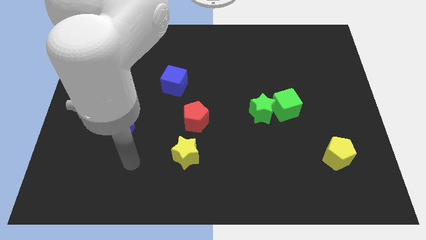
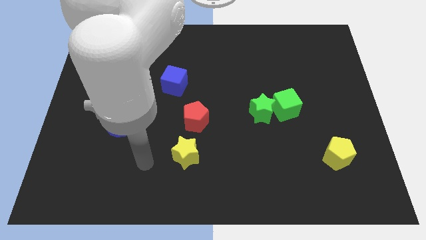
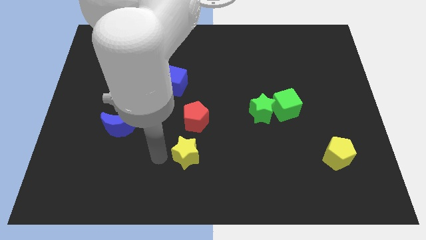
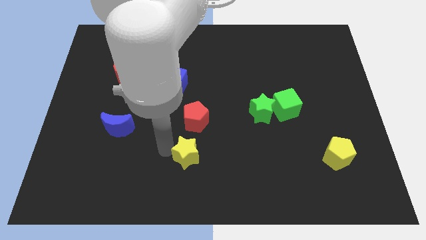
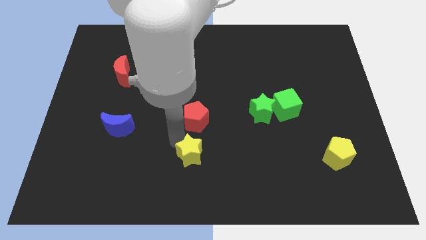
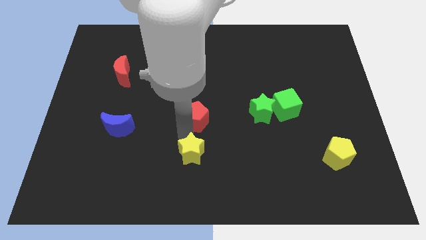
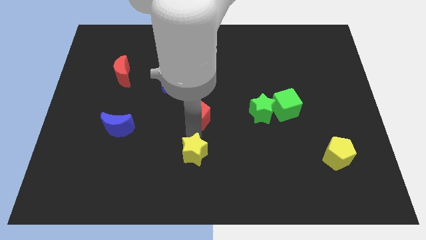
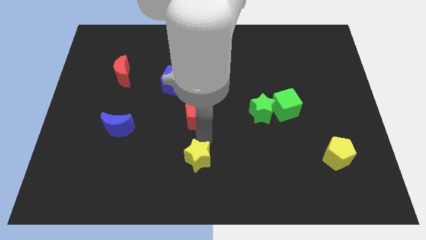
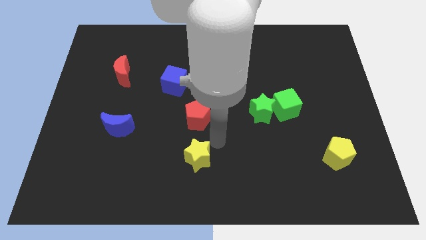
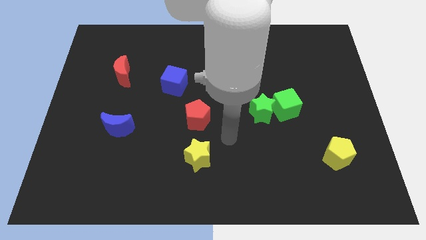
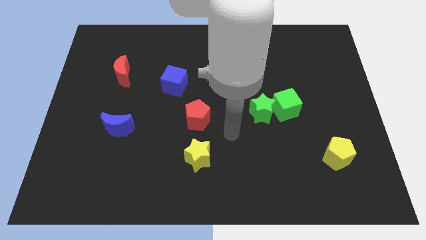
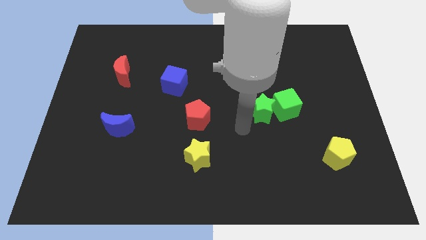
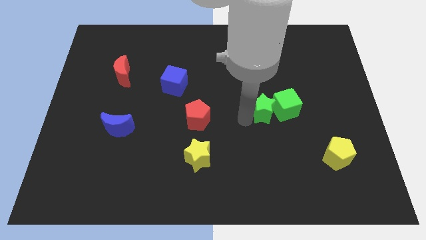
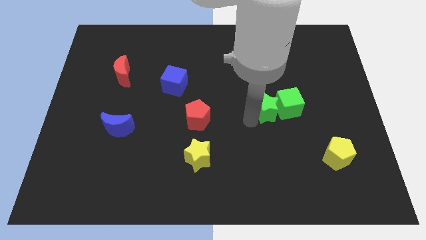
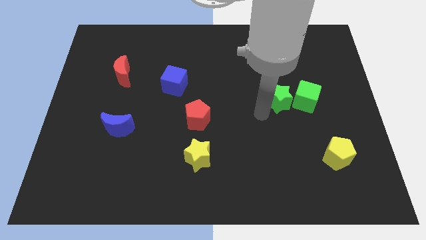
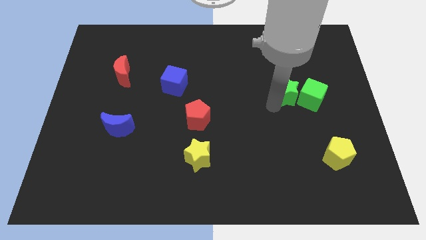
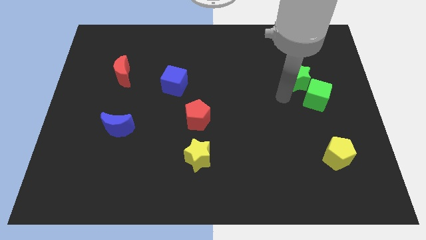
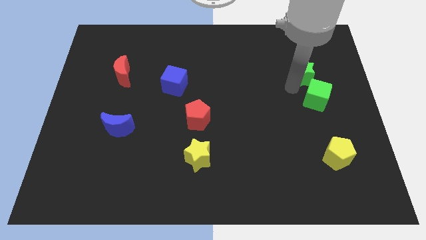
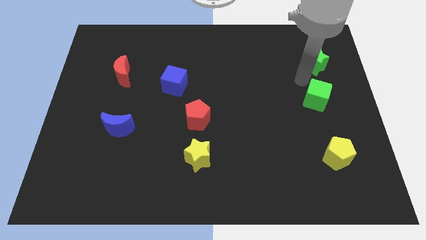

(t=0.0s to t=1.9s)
pull the green cube apart from the green star

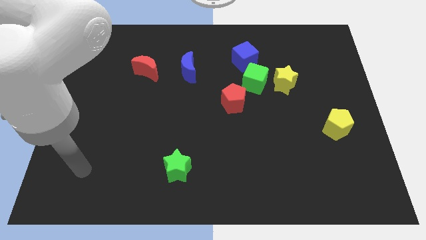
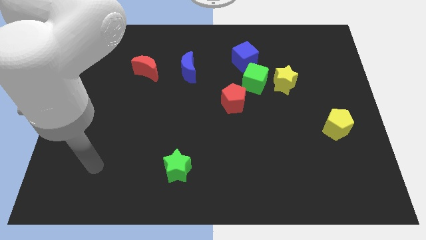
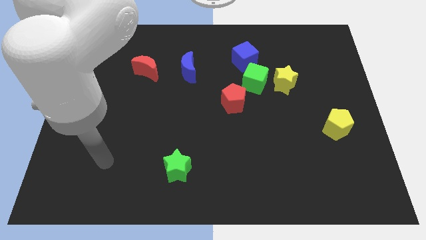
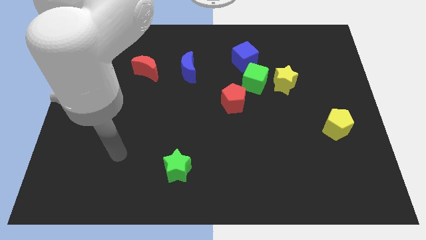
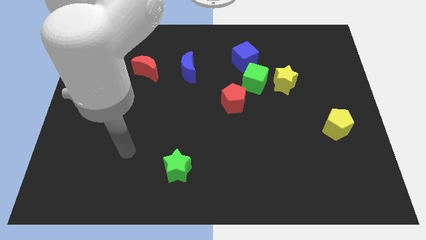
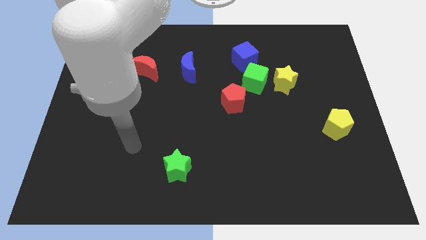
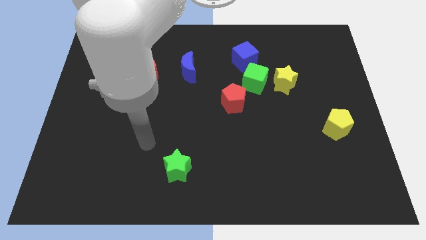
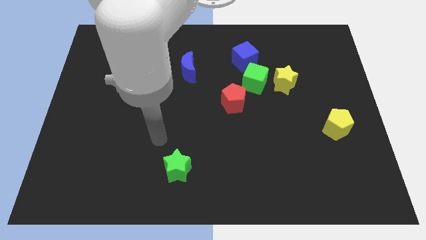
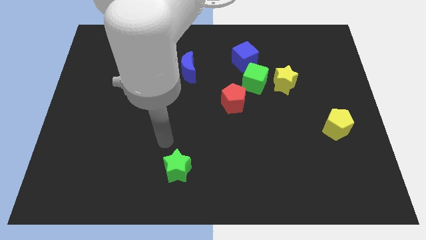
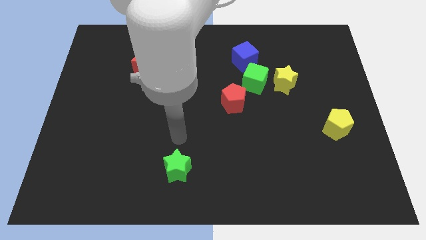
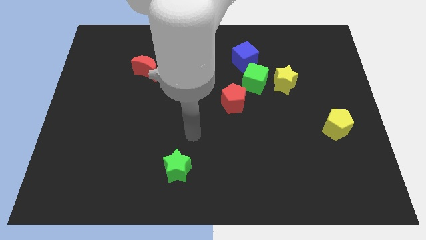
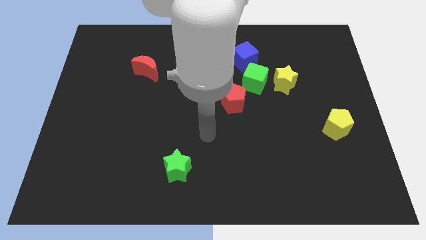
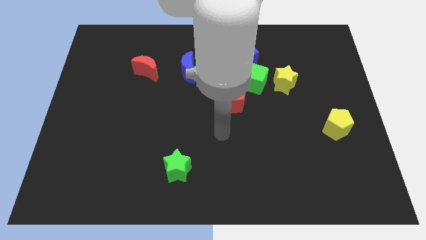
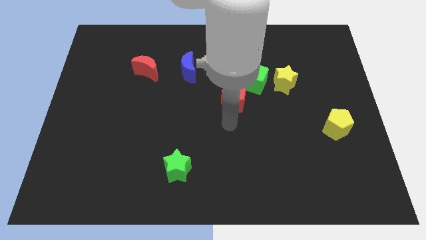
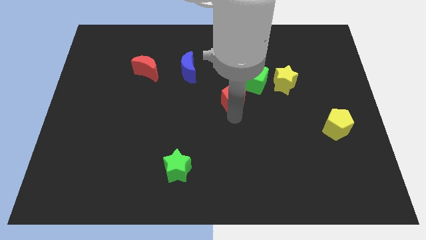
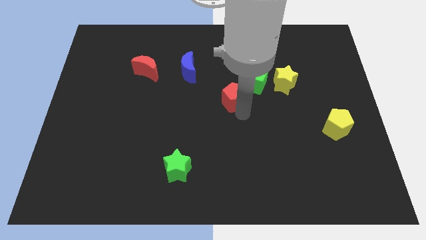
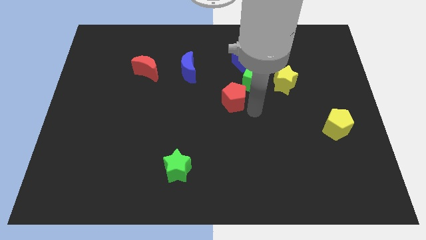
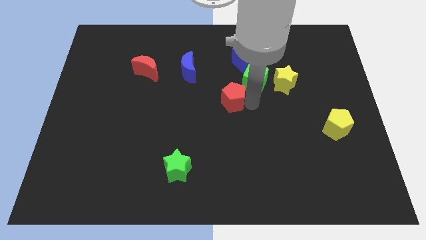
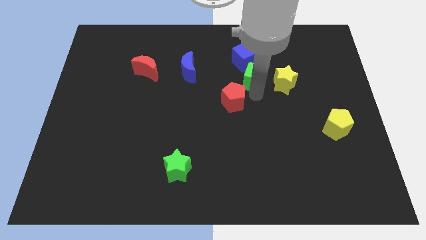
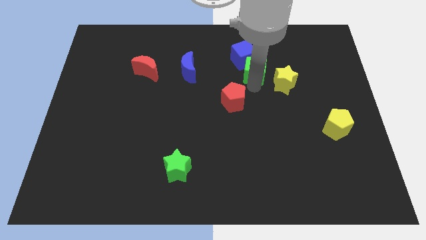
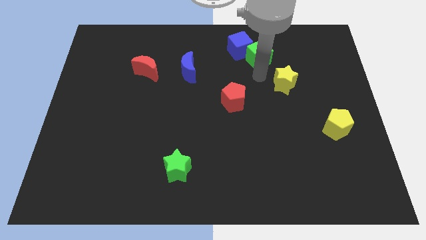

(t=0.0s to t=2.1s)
pull the yellow star apart from the green cube

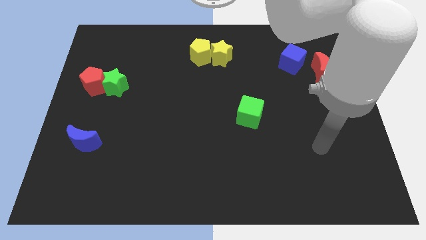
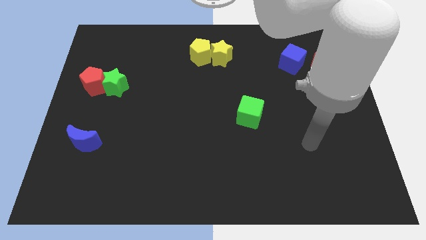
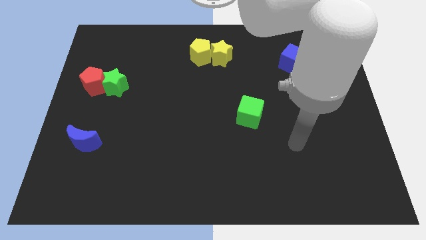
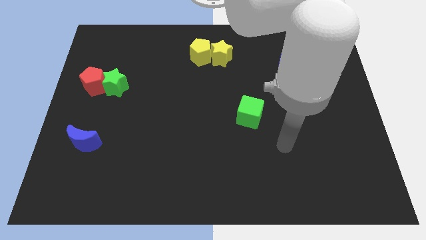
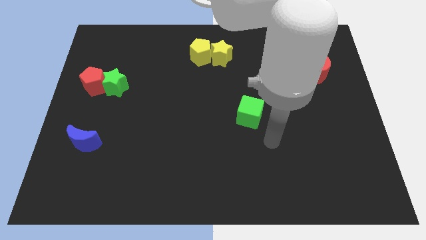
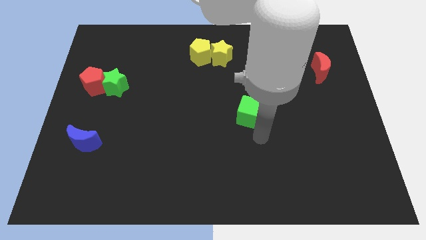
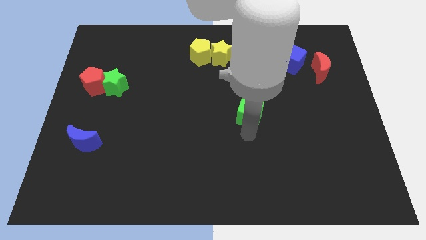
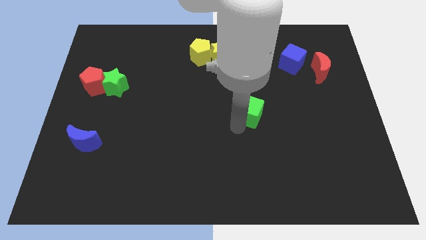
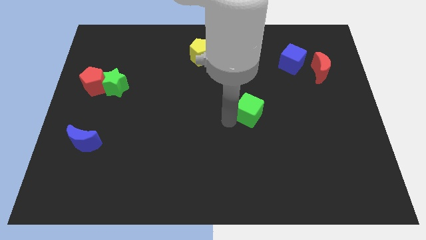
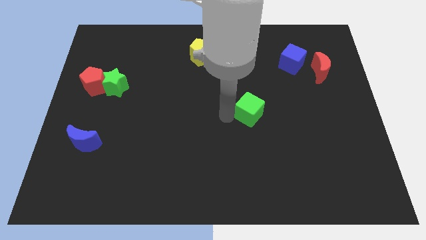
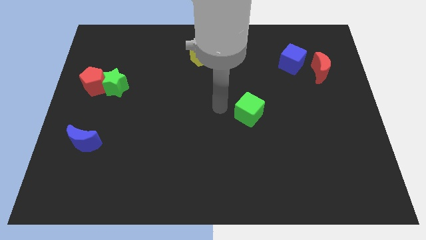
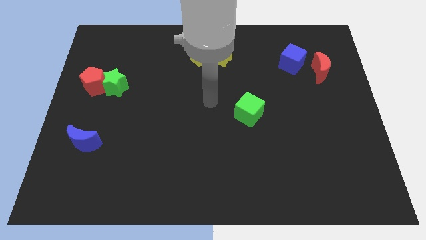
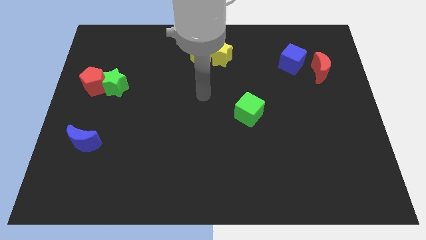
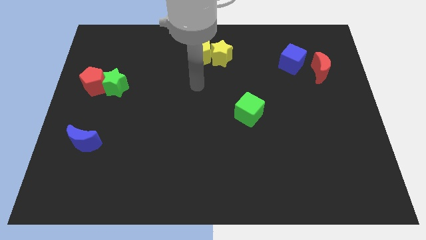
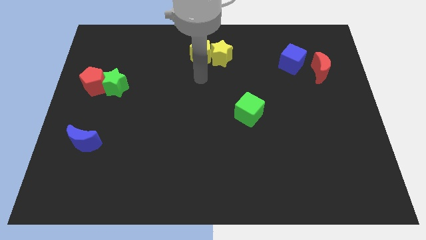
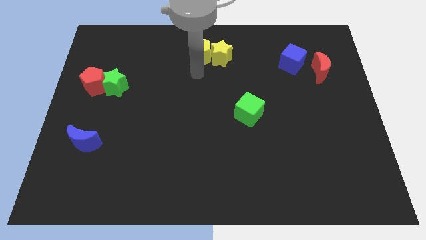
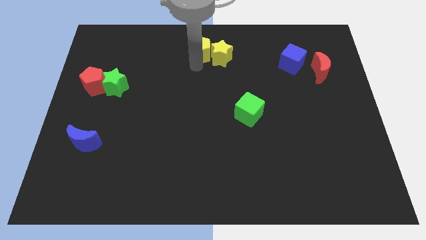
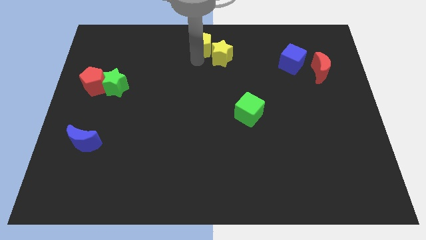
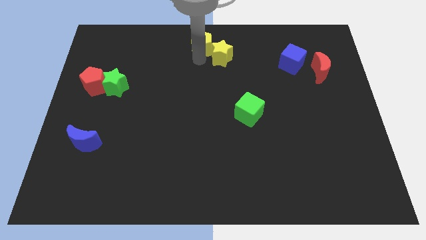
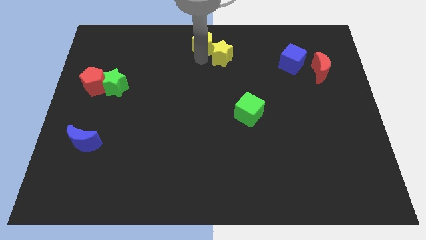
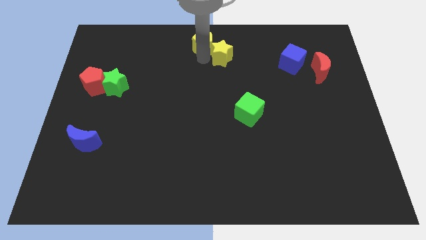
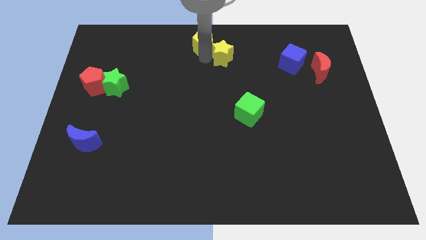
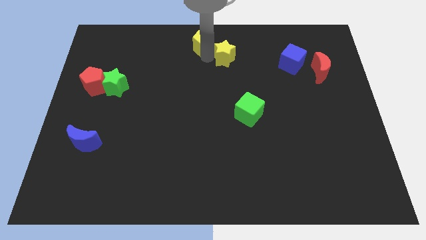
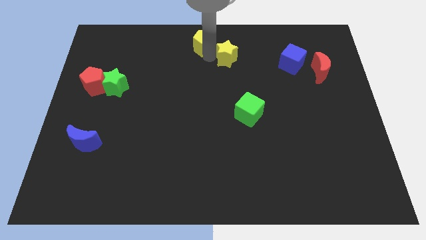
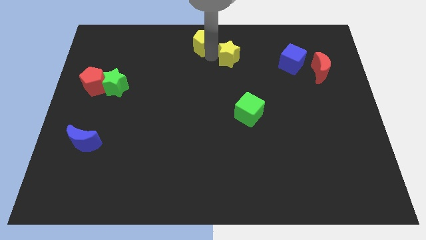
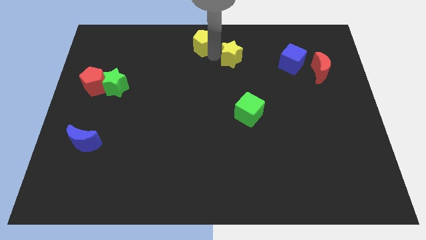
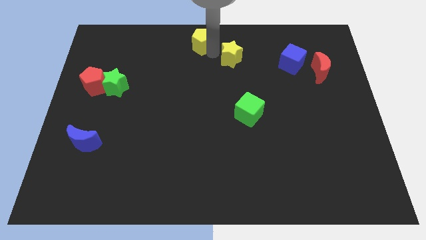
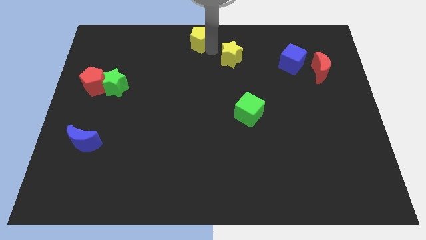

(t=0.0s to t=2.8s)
pull the yellow star apart from the yellow pentagon

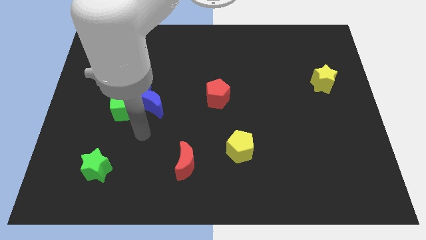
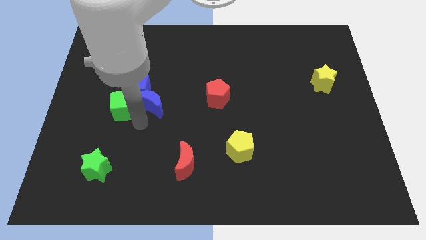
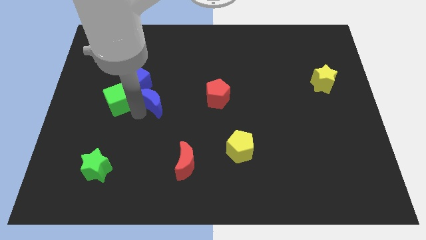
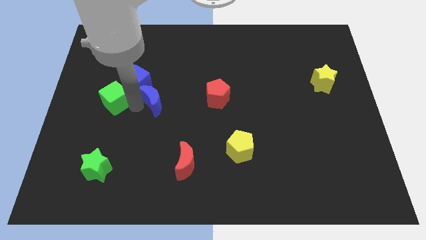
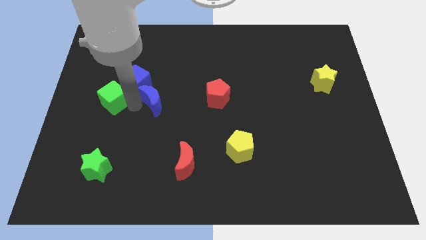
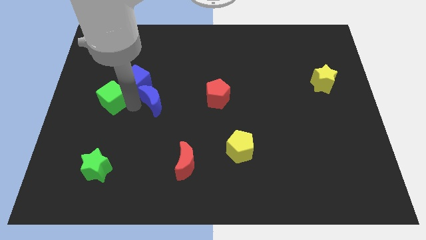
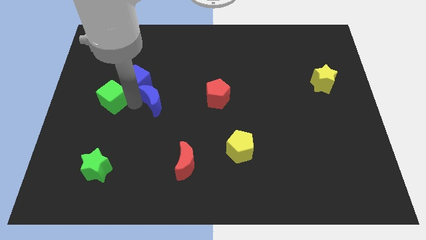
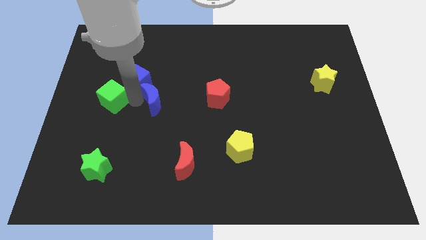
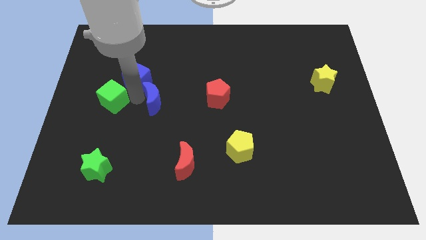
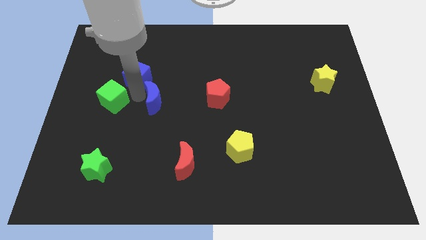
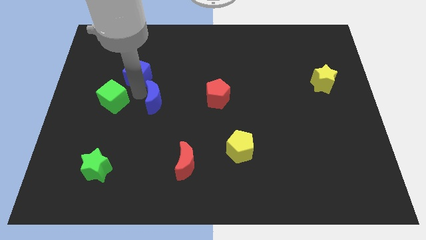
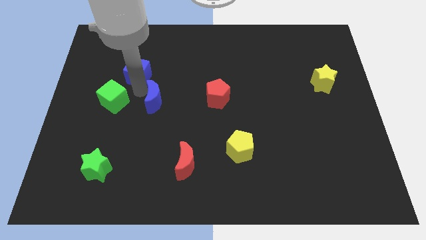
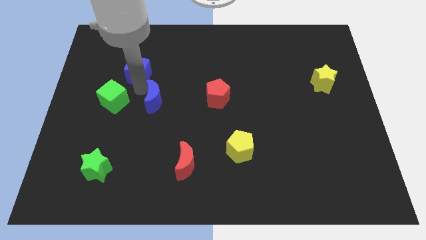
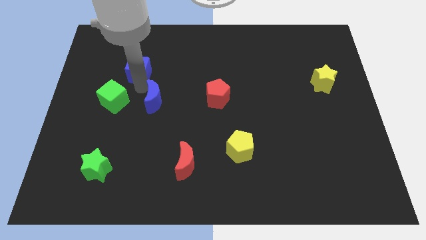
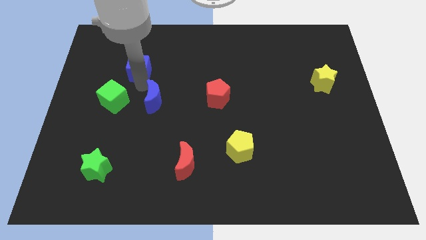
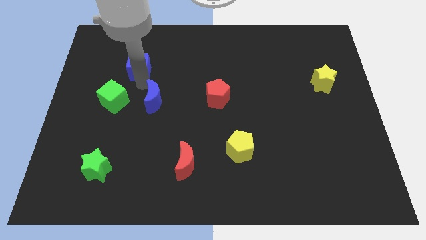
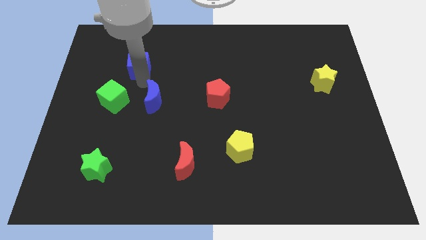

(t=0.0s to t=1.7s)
pull the blue cube apart from the blue moon and green cube

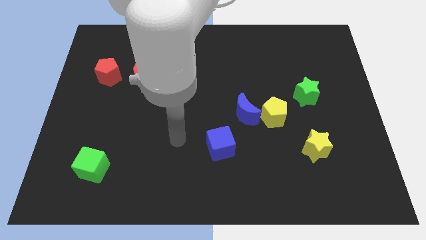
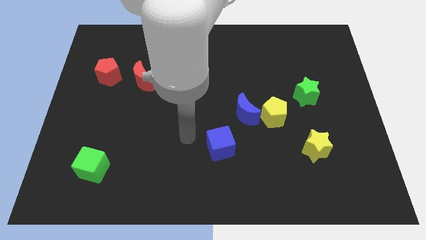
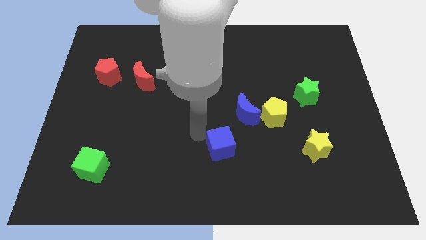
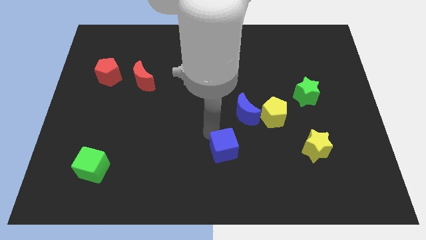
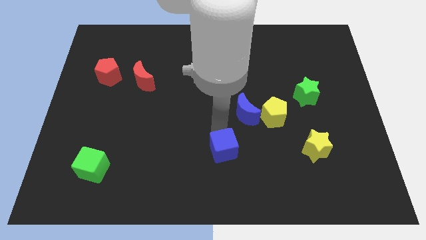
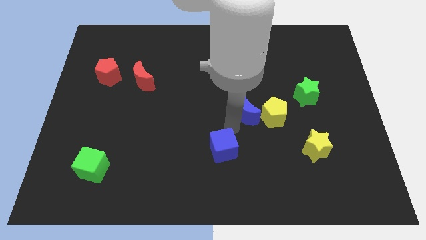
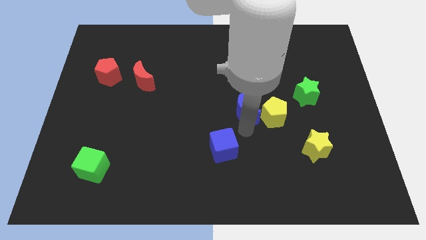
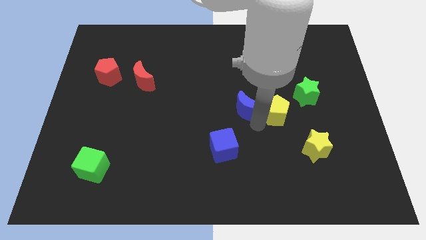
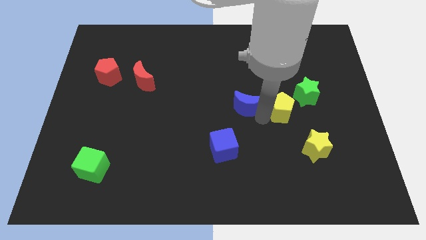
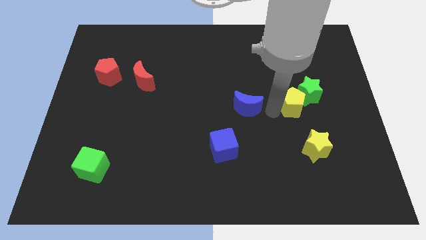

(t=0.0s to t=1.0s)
separate the blue moon from the yellow pentagon
